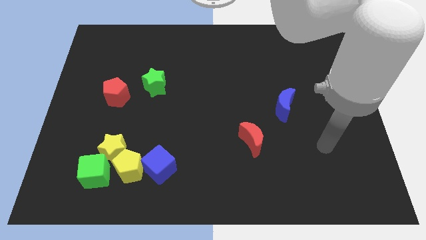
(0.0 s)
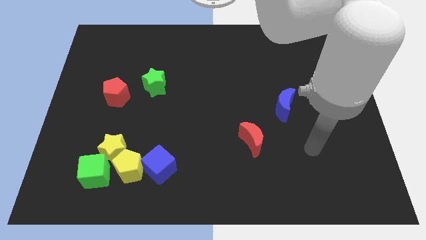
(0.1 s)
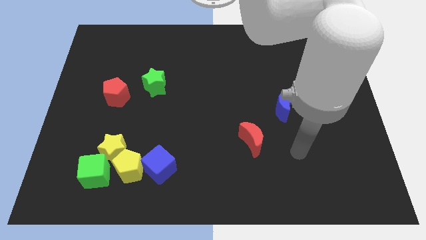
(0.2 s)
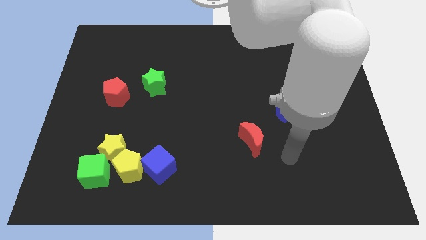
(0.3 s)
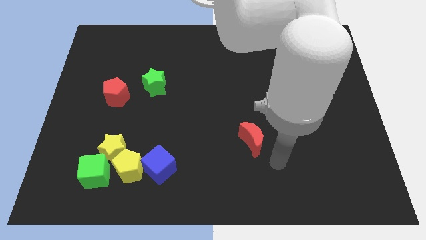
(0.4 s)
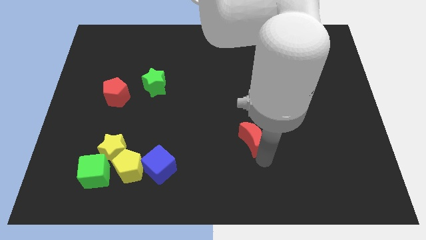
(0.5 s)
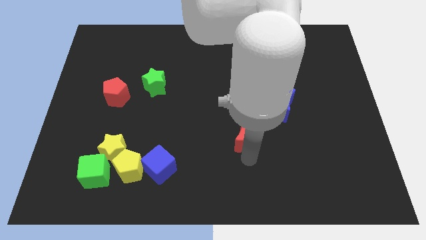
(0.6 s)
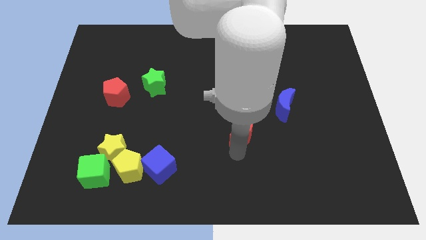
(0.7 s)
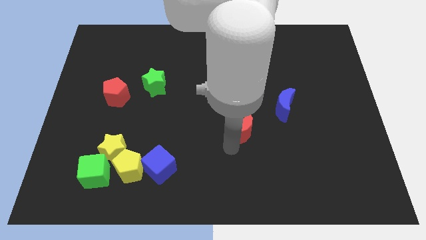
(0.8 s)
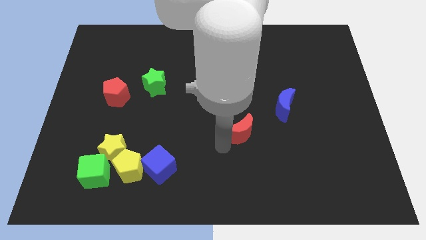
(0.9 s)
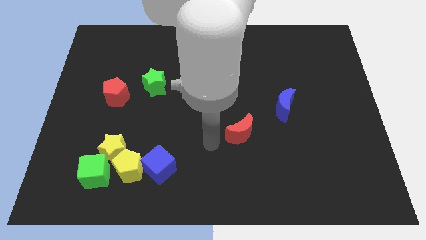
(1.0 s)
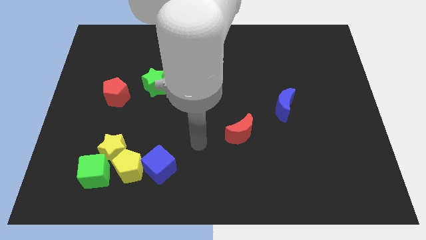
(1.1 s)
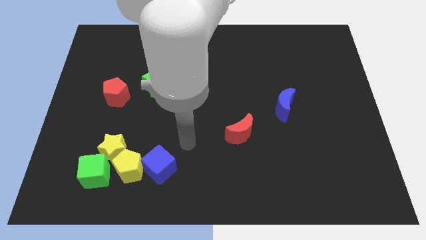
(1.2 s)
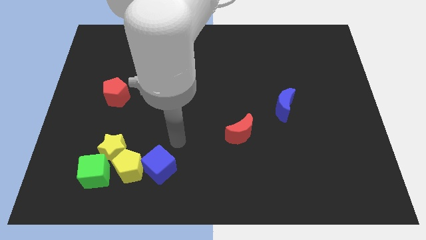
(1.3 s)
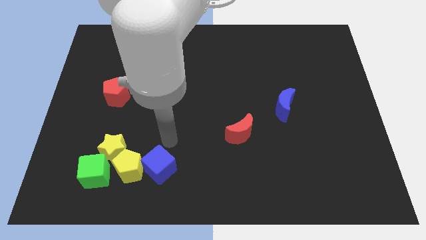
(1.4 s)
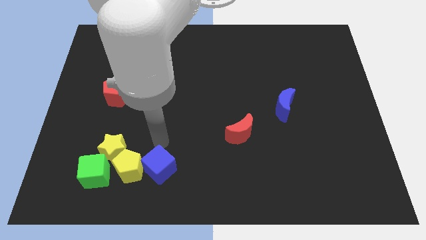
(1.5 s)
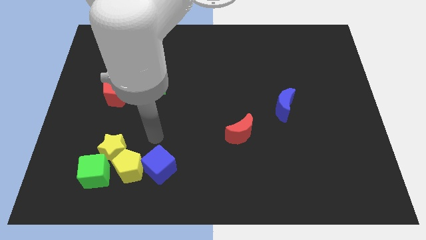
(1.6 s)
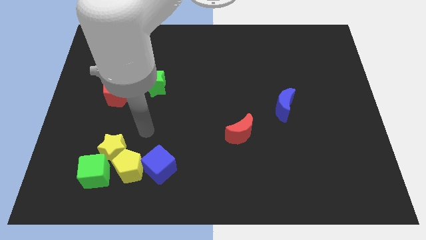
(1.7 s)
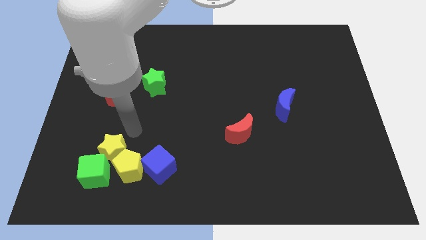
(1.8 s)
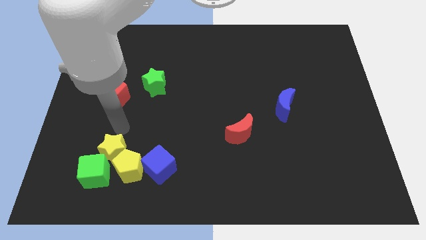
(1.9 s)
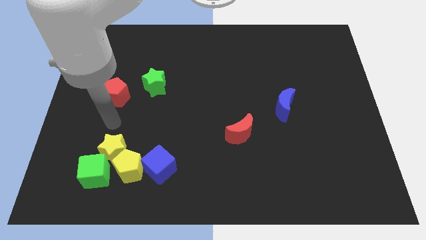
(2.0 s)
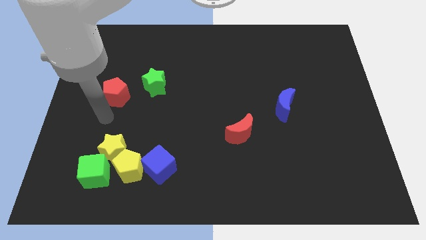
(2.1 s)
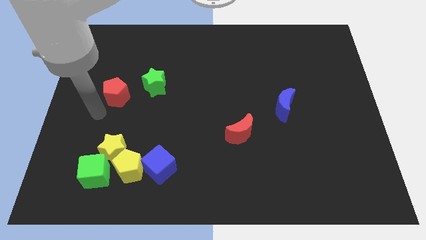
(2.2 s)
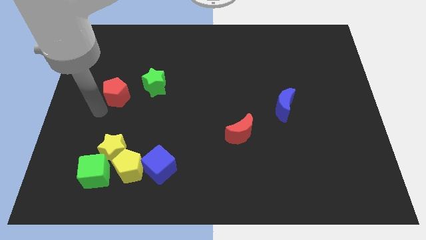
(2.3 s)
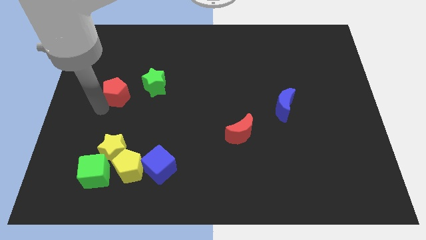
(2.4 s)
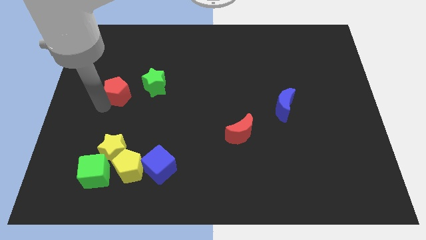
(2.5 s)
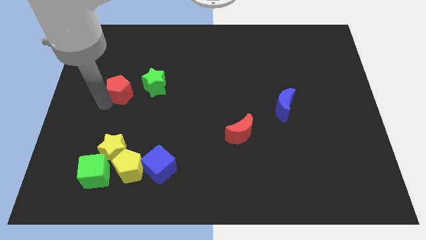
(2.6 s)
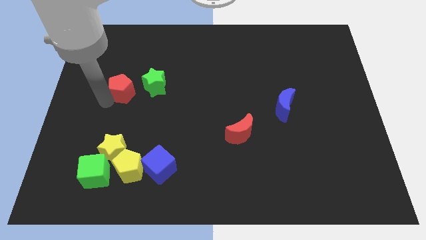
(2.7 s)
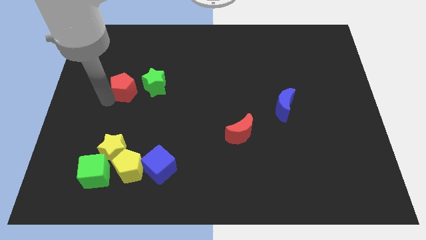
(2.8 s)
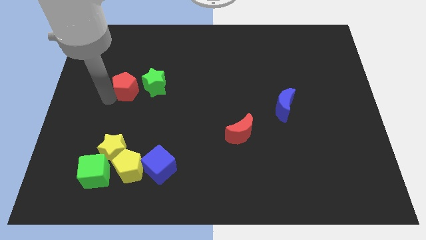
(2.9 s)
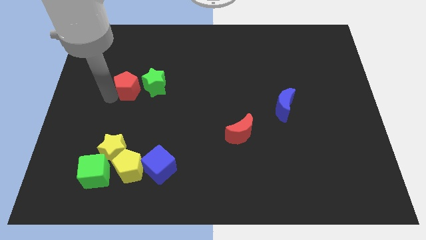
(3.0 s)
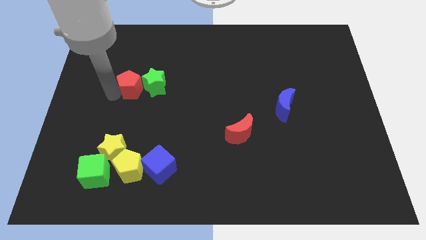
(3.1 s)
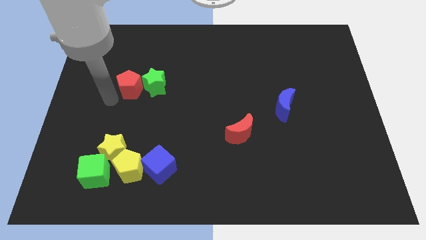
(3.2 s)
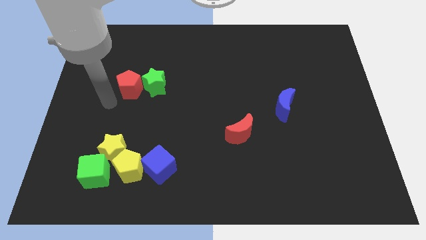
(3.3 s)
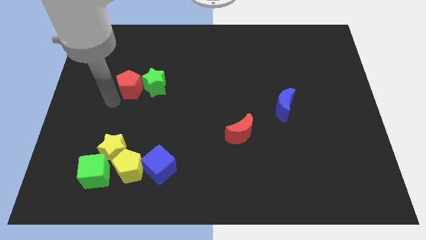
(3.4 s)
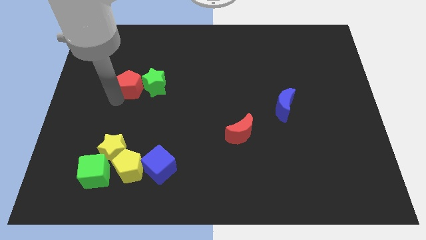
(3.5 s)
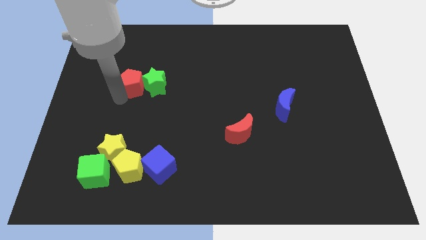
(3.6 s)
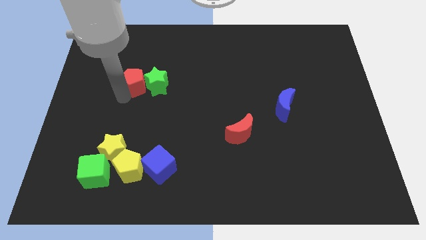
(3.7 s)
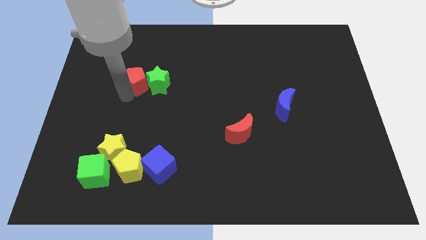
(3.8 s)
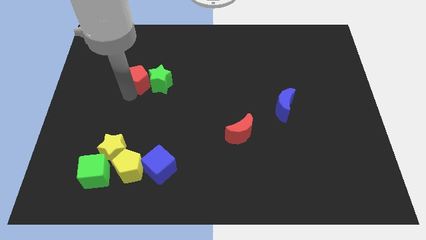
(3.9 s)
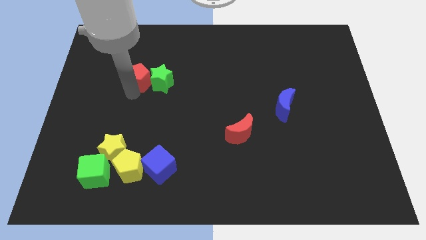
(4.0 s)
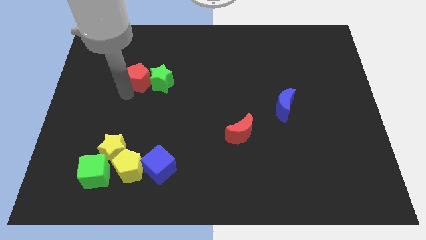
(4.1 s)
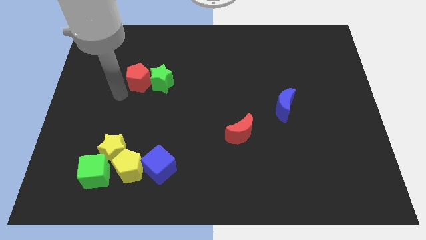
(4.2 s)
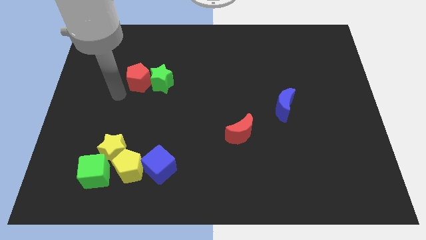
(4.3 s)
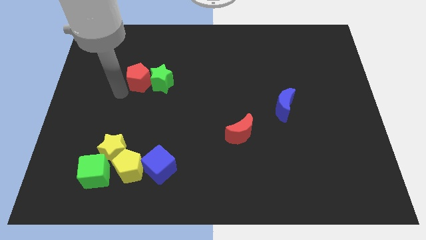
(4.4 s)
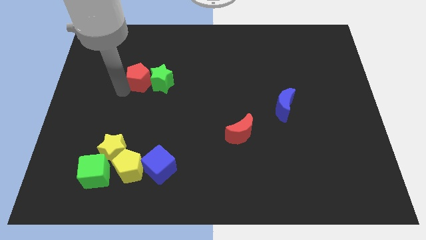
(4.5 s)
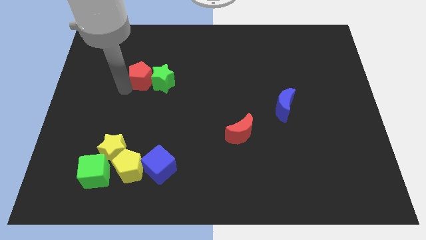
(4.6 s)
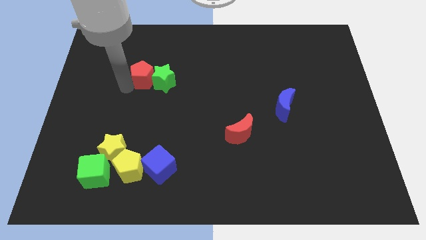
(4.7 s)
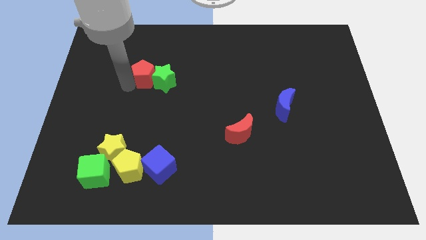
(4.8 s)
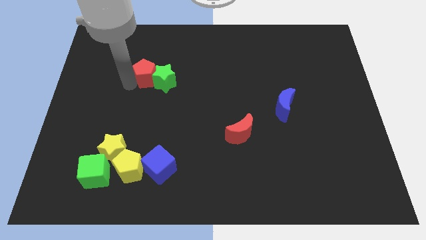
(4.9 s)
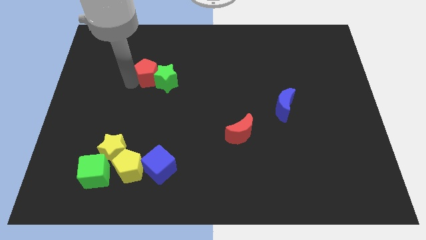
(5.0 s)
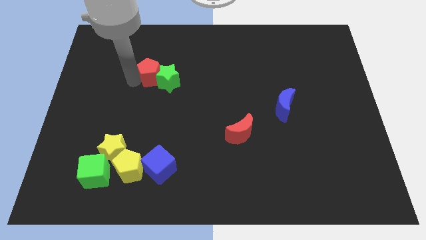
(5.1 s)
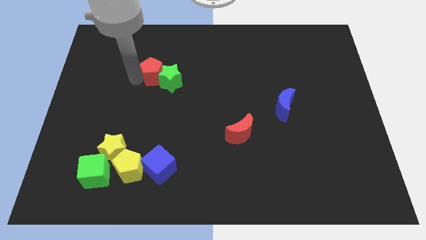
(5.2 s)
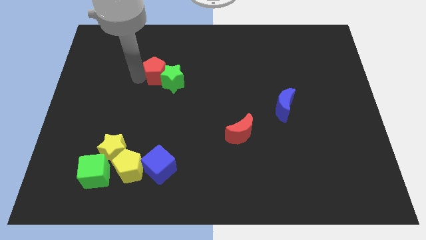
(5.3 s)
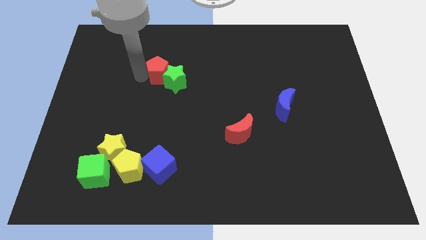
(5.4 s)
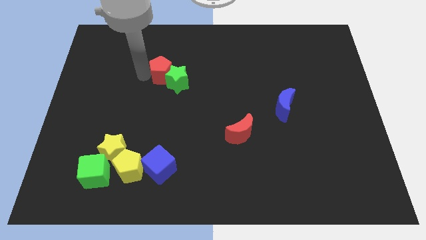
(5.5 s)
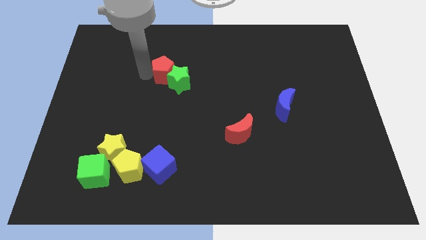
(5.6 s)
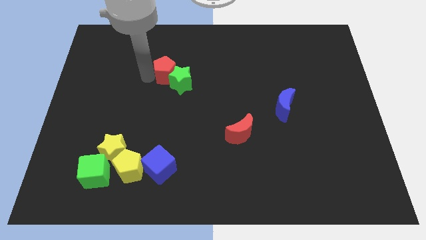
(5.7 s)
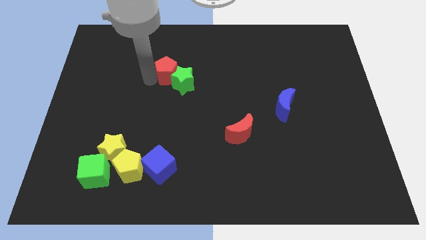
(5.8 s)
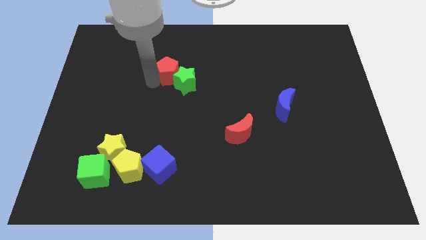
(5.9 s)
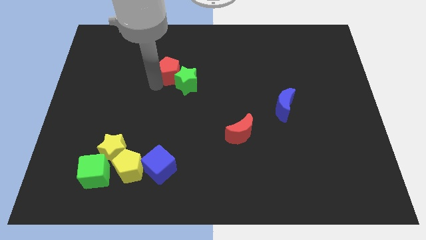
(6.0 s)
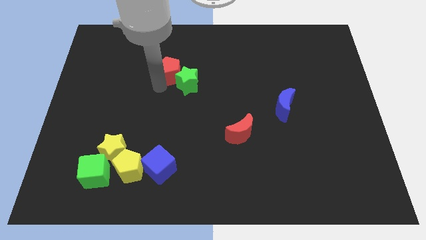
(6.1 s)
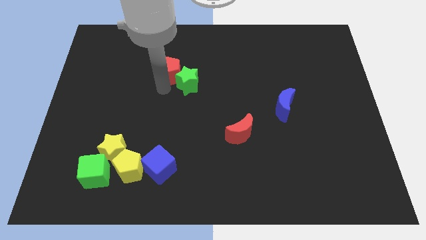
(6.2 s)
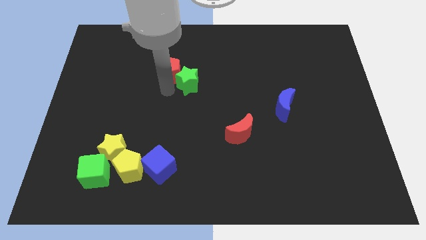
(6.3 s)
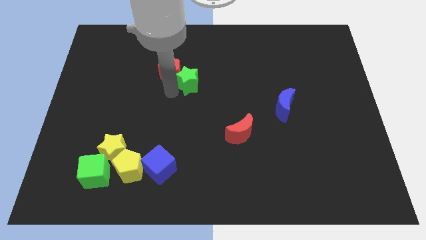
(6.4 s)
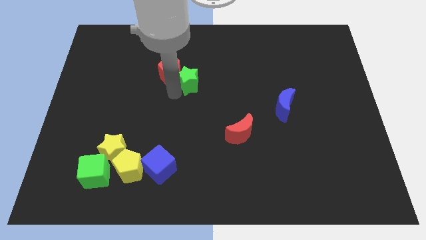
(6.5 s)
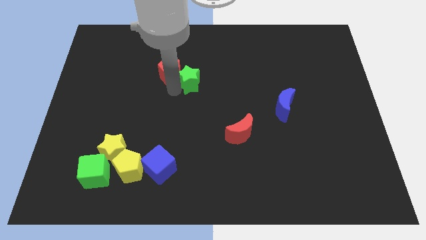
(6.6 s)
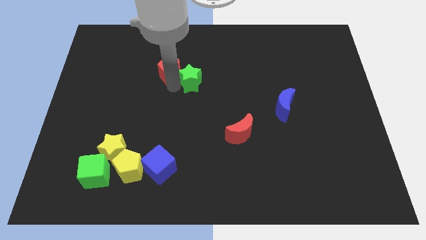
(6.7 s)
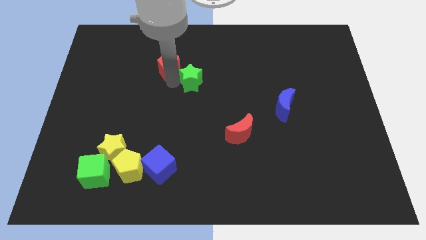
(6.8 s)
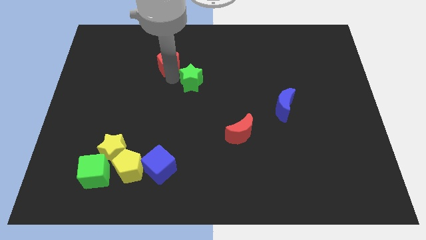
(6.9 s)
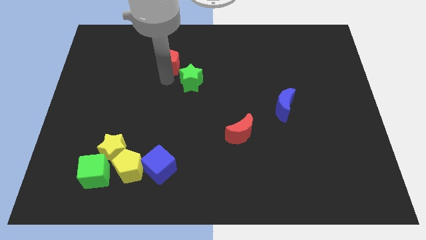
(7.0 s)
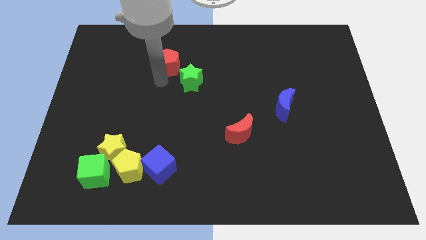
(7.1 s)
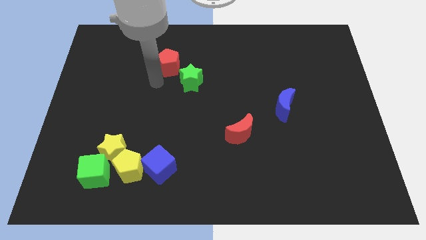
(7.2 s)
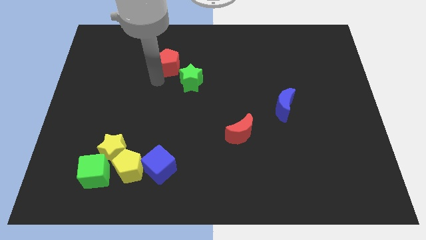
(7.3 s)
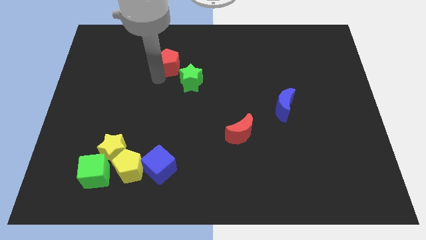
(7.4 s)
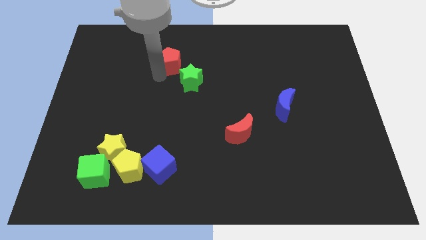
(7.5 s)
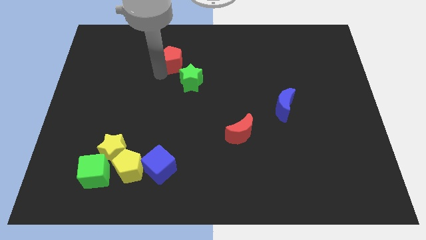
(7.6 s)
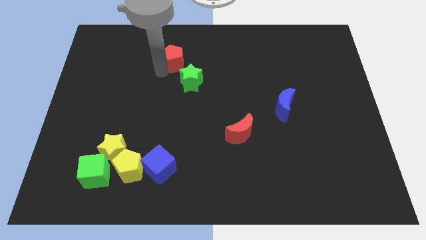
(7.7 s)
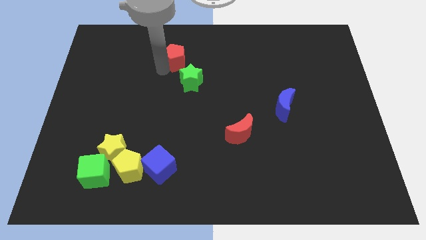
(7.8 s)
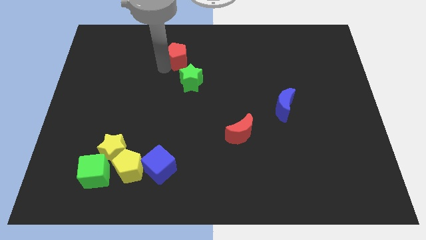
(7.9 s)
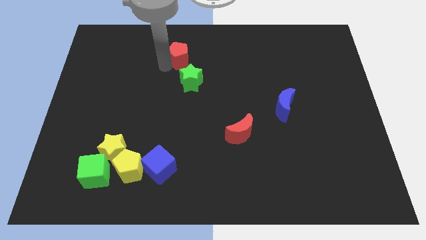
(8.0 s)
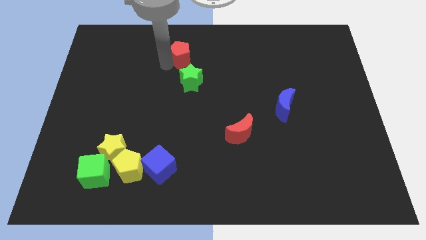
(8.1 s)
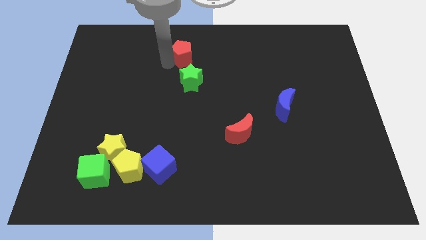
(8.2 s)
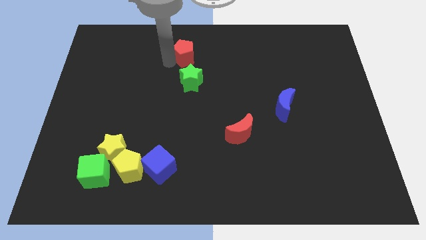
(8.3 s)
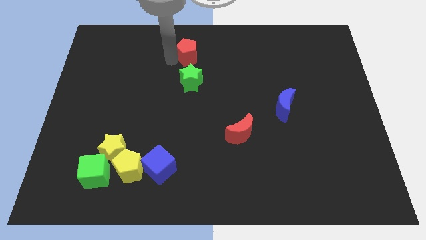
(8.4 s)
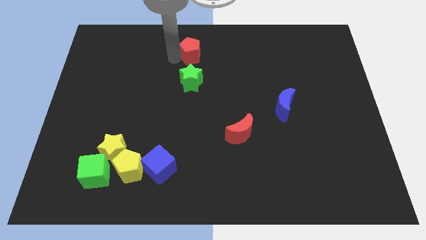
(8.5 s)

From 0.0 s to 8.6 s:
put the red pentagon to the towards your base
